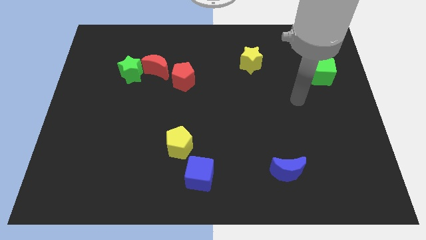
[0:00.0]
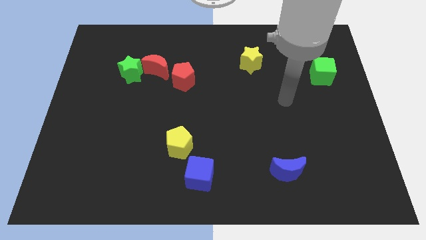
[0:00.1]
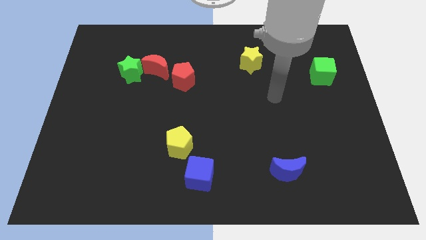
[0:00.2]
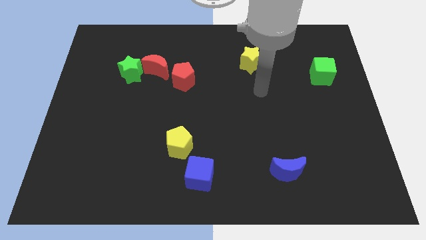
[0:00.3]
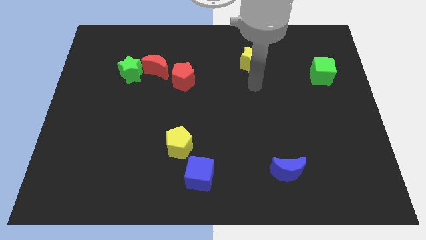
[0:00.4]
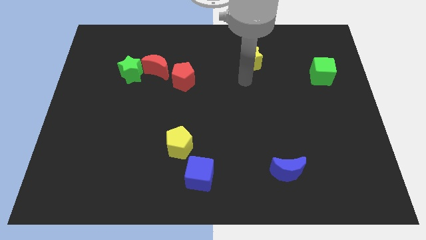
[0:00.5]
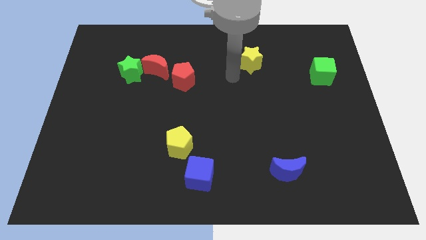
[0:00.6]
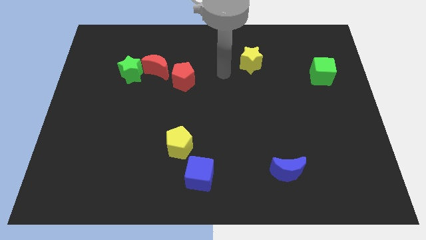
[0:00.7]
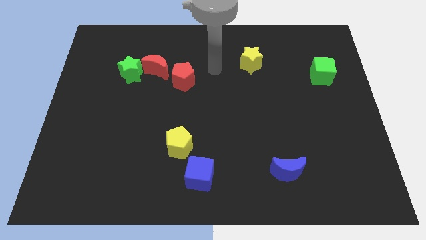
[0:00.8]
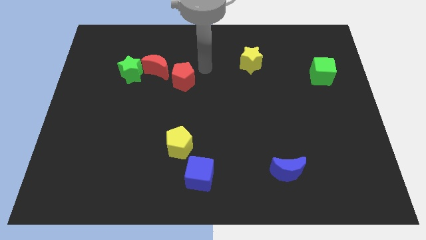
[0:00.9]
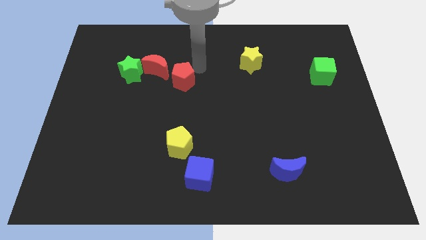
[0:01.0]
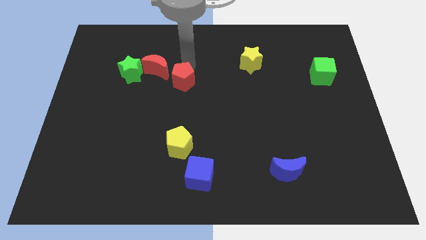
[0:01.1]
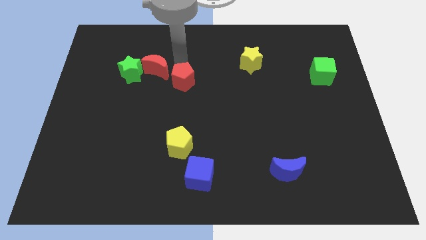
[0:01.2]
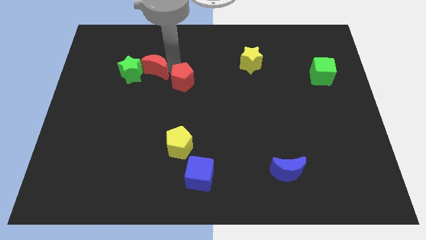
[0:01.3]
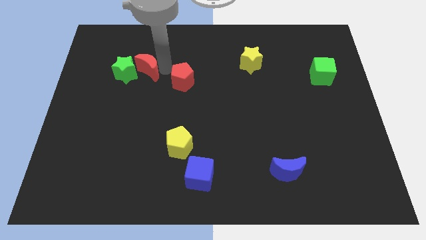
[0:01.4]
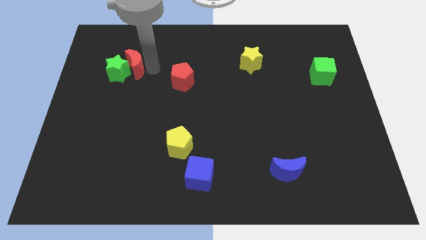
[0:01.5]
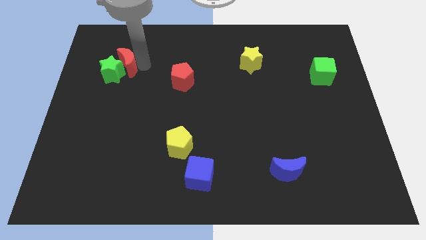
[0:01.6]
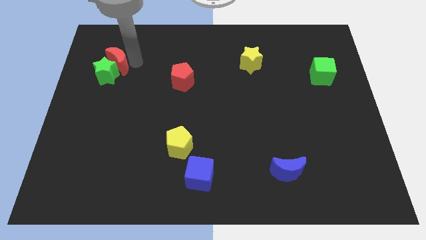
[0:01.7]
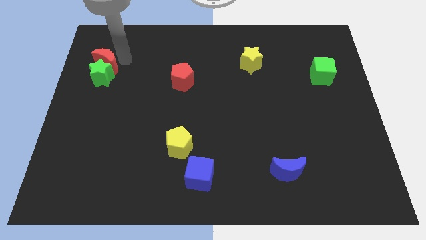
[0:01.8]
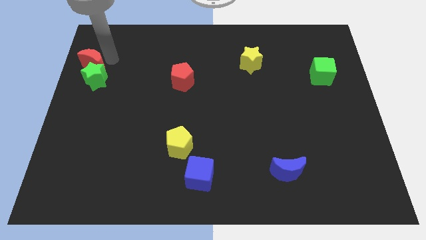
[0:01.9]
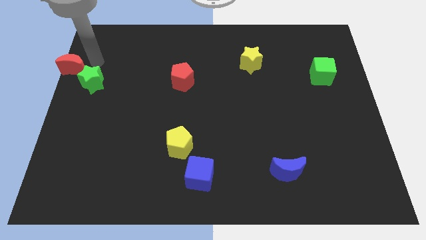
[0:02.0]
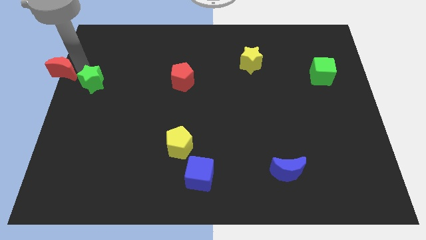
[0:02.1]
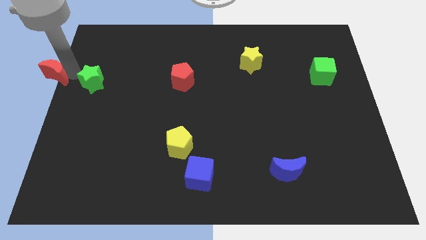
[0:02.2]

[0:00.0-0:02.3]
separate the green star from the red moon

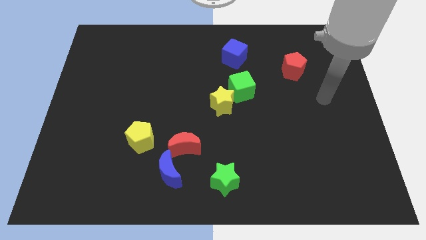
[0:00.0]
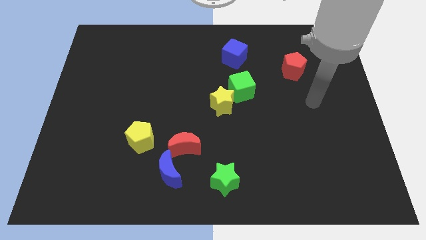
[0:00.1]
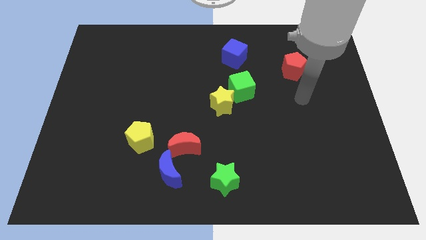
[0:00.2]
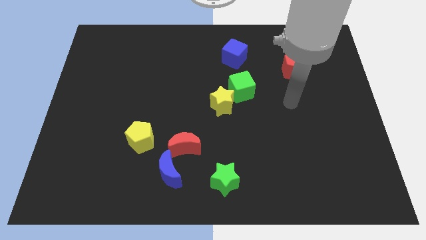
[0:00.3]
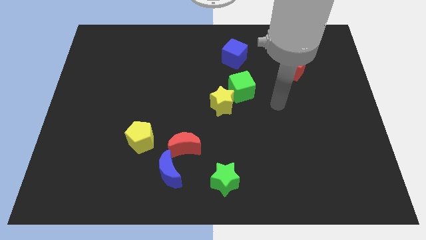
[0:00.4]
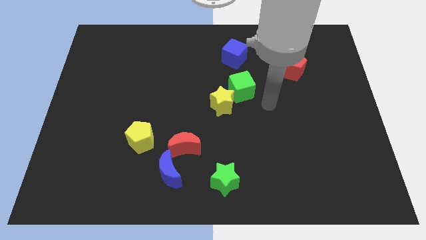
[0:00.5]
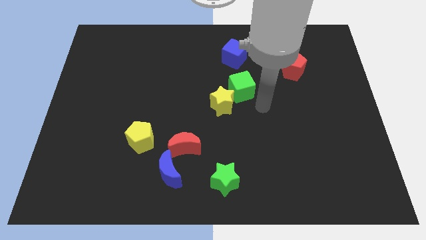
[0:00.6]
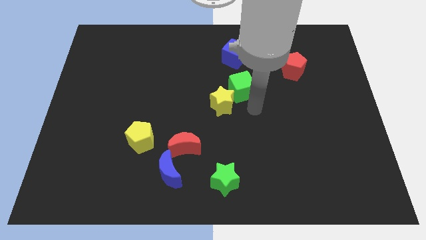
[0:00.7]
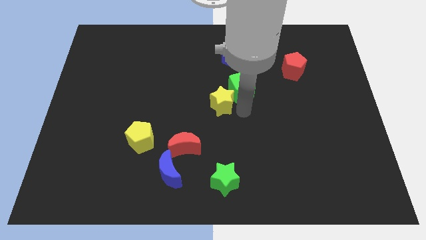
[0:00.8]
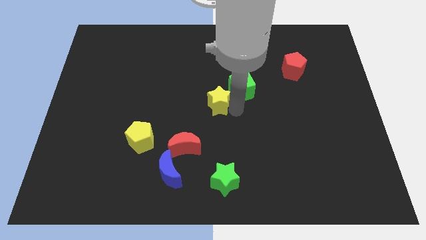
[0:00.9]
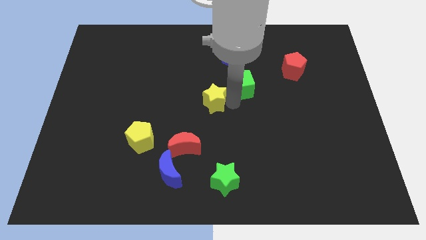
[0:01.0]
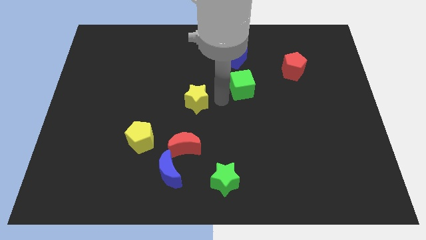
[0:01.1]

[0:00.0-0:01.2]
move the green cube away from the yellow star

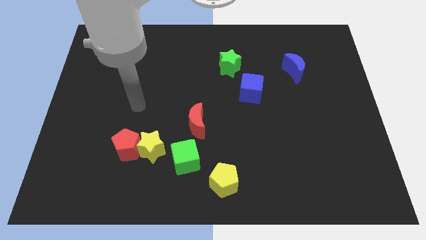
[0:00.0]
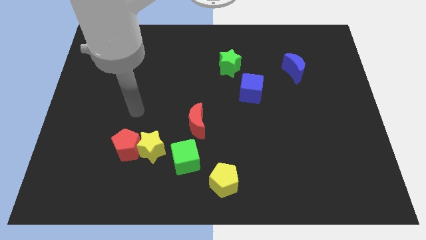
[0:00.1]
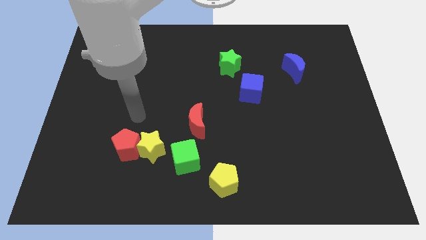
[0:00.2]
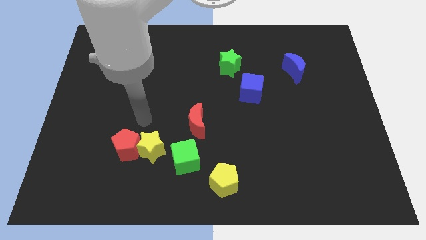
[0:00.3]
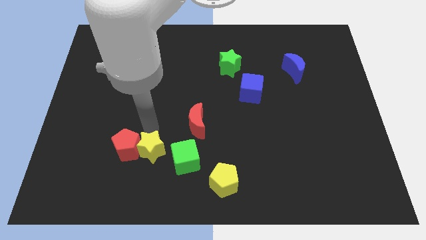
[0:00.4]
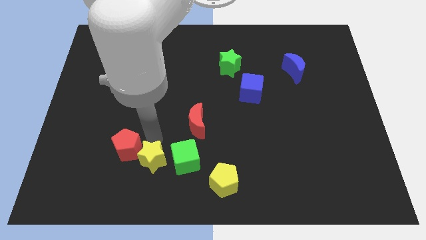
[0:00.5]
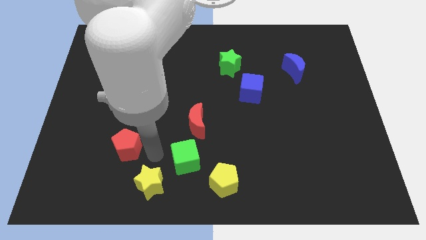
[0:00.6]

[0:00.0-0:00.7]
pull the red pentagon apart from the yellow star

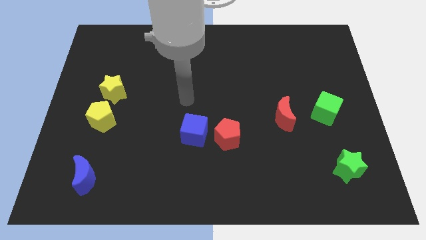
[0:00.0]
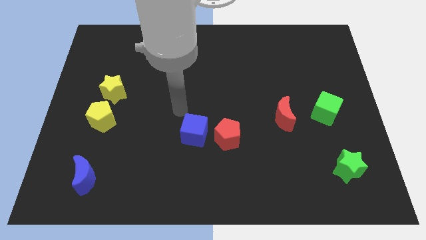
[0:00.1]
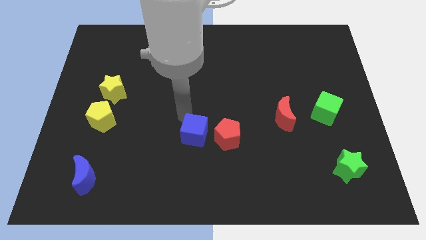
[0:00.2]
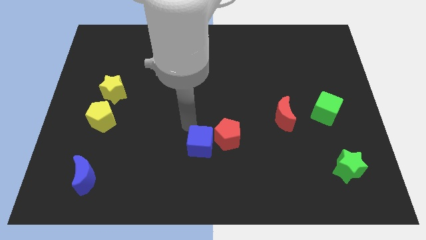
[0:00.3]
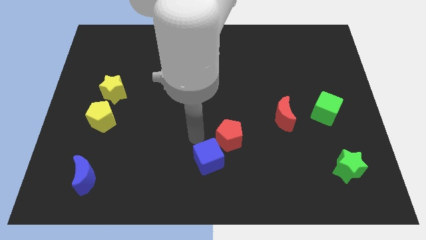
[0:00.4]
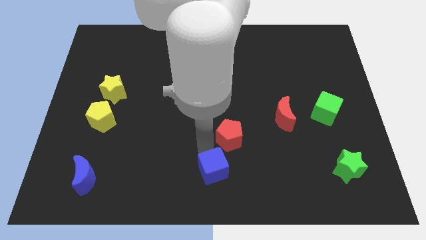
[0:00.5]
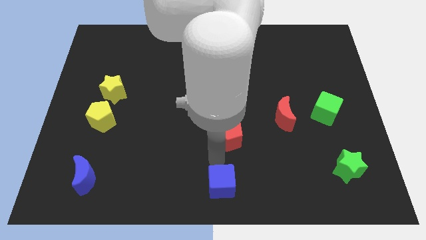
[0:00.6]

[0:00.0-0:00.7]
move the red pentagon away from the blue cube

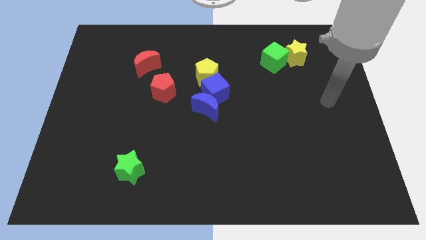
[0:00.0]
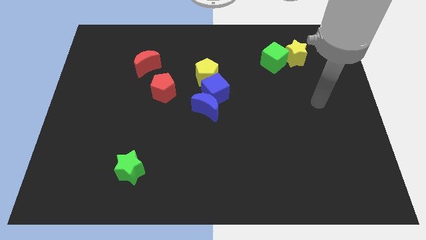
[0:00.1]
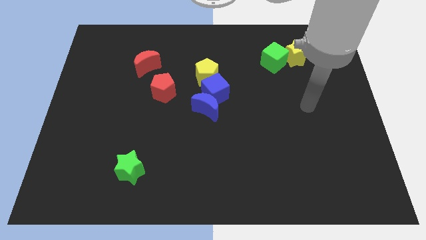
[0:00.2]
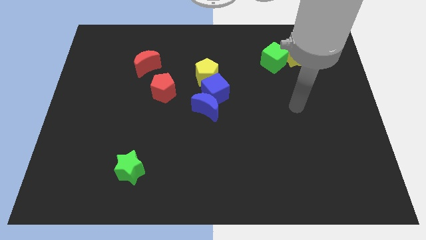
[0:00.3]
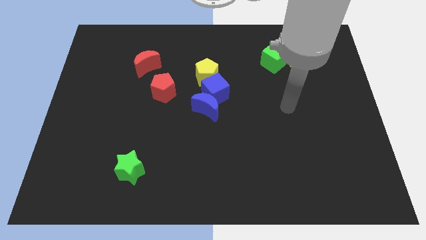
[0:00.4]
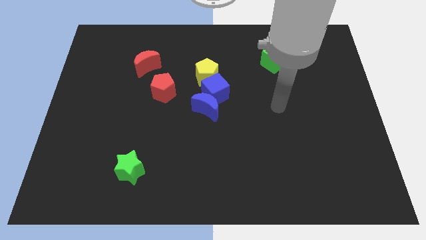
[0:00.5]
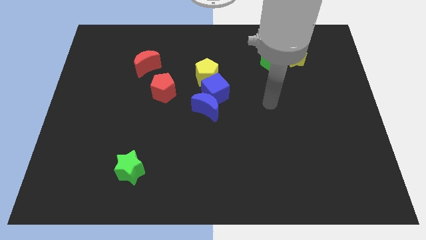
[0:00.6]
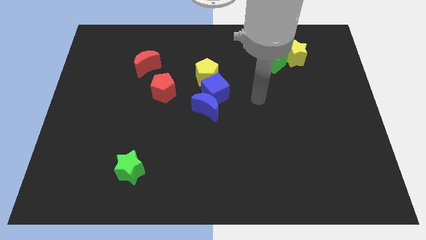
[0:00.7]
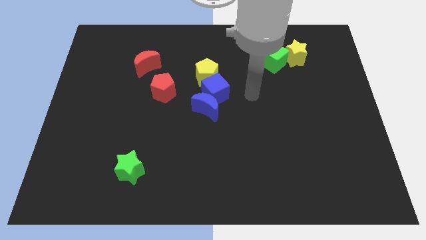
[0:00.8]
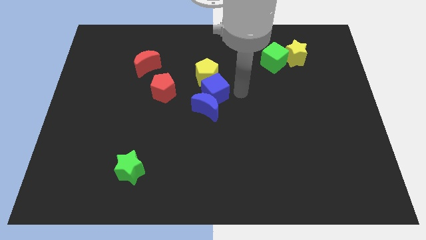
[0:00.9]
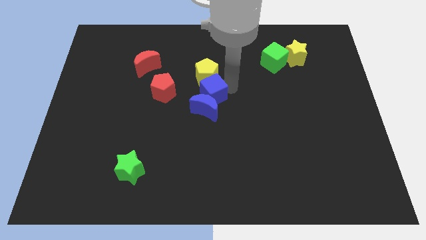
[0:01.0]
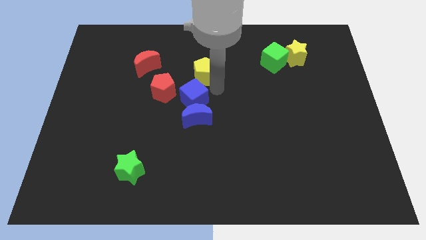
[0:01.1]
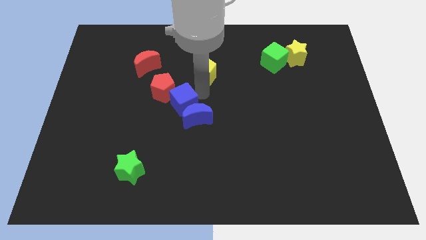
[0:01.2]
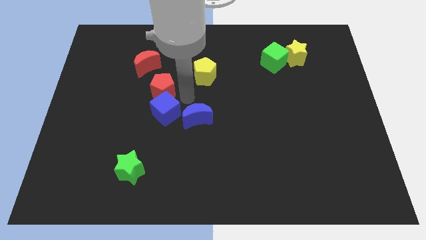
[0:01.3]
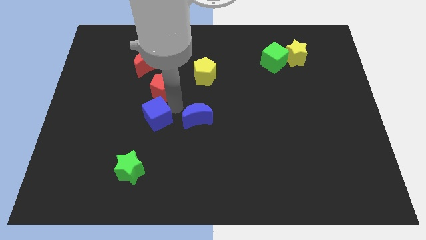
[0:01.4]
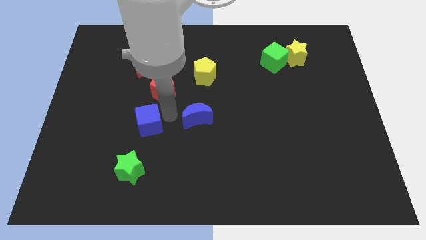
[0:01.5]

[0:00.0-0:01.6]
pull the blue moon apart from the blue cube

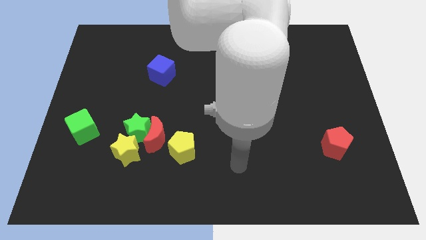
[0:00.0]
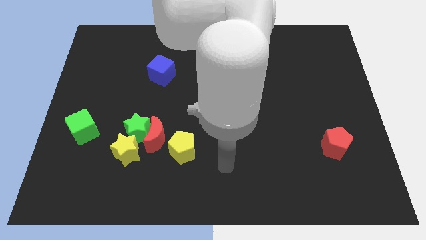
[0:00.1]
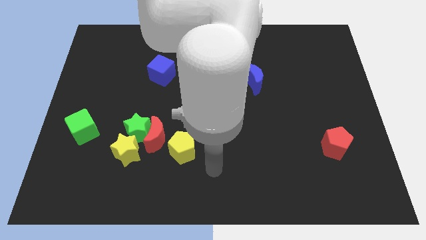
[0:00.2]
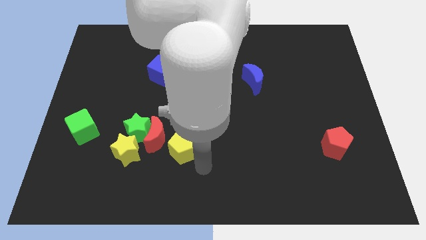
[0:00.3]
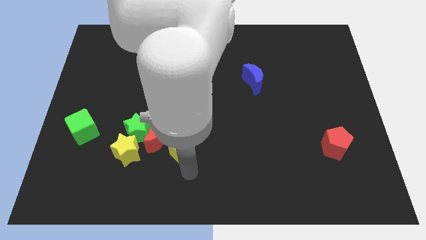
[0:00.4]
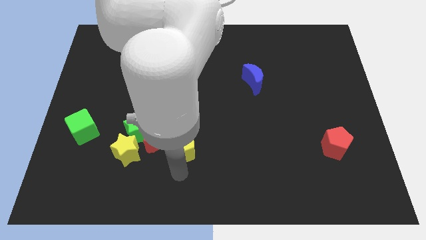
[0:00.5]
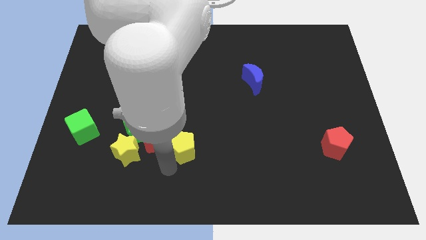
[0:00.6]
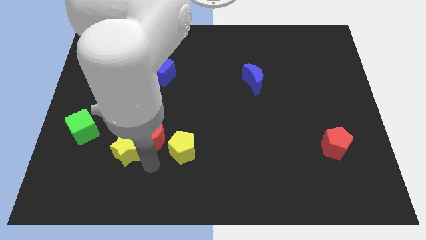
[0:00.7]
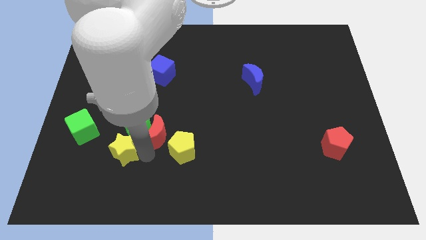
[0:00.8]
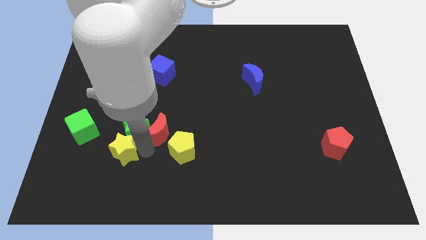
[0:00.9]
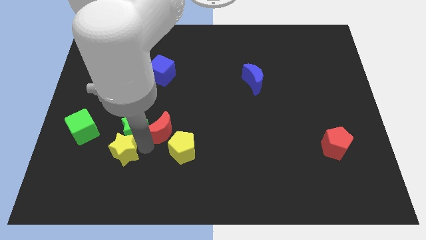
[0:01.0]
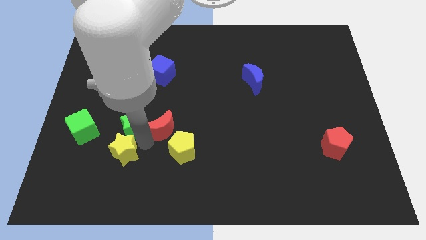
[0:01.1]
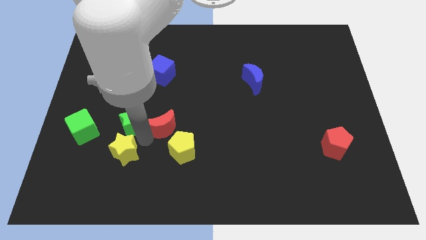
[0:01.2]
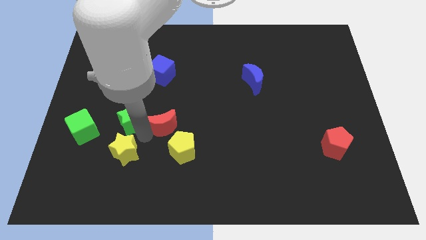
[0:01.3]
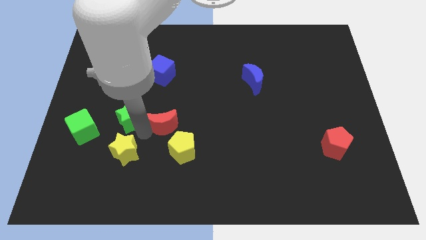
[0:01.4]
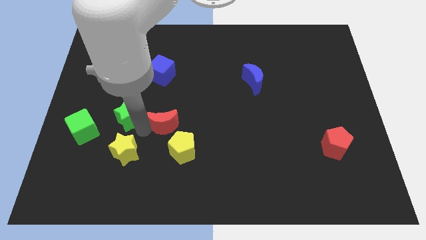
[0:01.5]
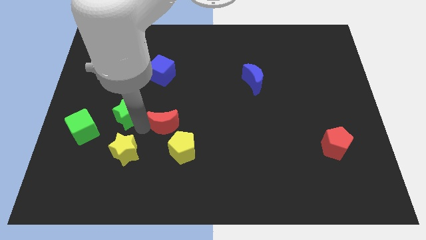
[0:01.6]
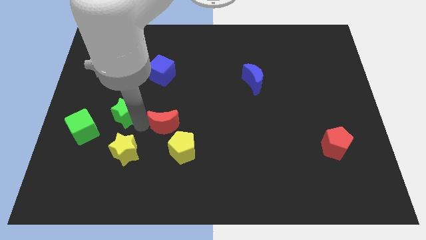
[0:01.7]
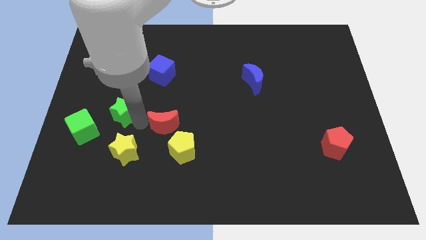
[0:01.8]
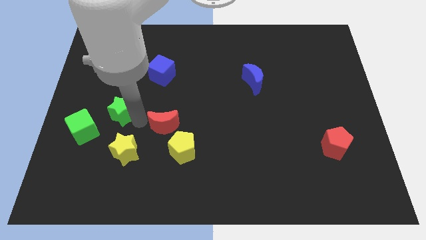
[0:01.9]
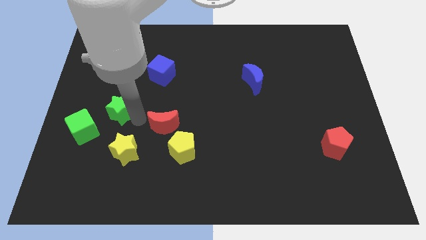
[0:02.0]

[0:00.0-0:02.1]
separate the green star from the red moon and yellow star

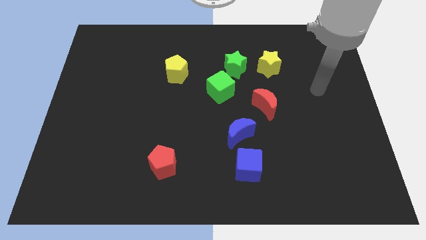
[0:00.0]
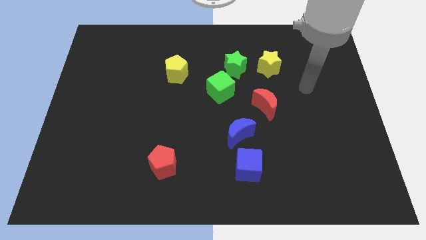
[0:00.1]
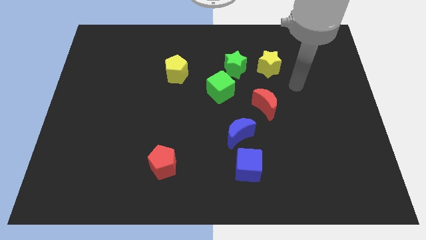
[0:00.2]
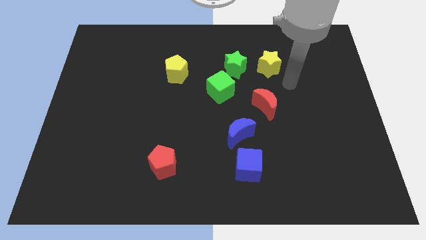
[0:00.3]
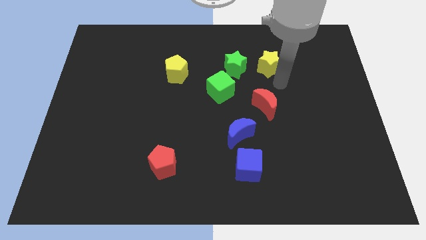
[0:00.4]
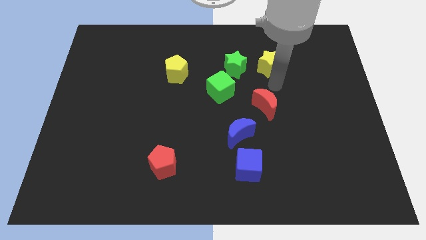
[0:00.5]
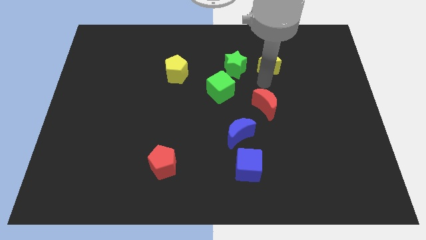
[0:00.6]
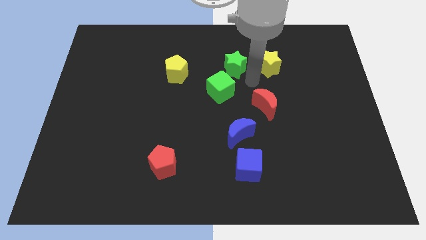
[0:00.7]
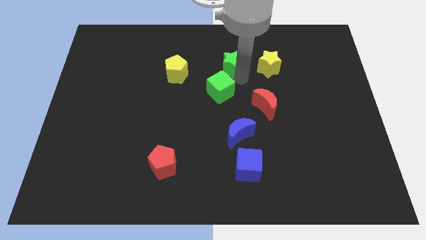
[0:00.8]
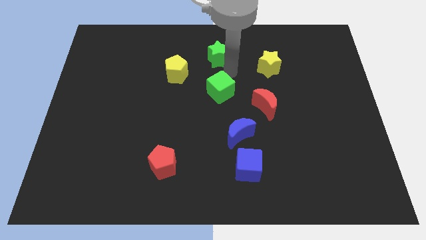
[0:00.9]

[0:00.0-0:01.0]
move the green cube away from the green star
